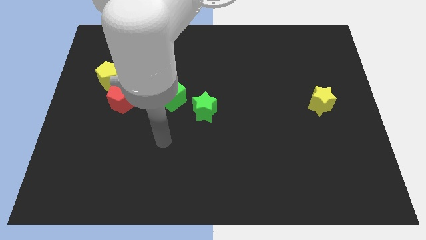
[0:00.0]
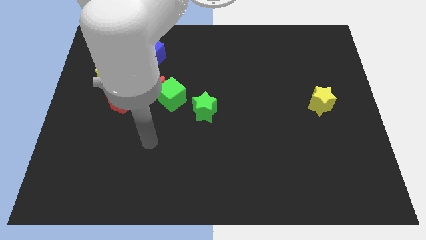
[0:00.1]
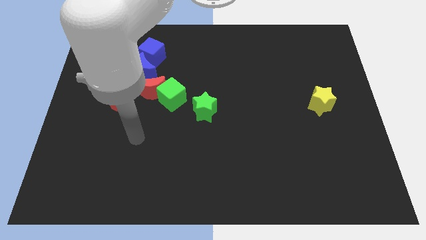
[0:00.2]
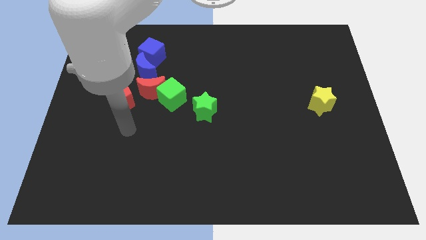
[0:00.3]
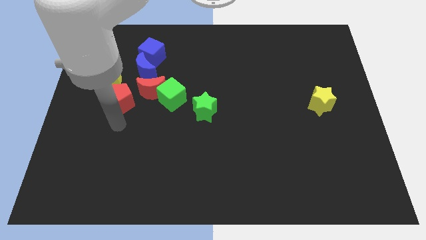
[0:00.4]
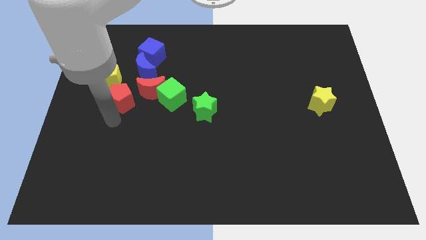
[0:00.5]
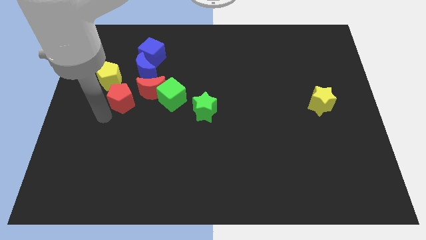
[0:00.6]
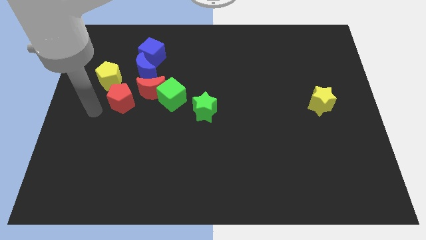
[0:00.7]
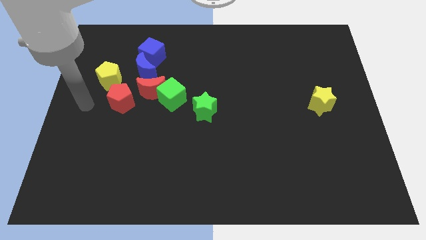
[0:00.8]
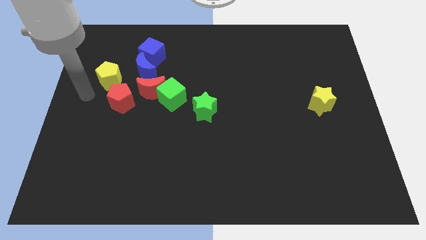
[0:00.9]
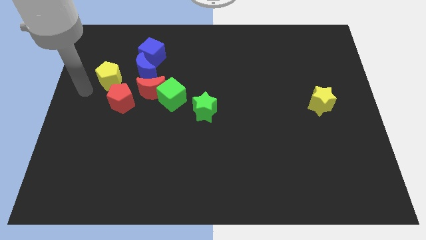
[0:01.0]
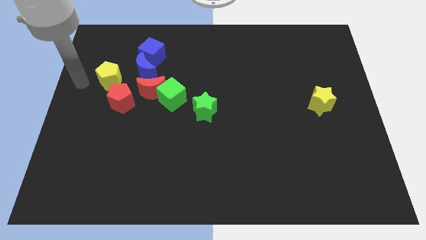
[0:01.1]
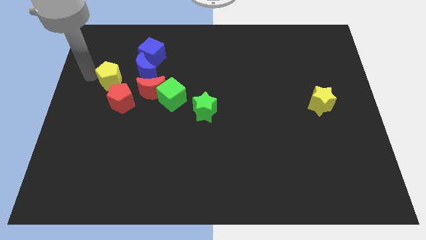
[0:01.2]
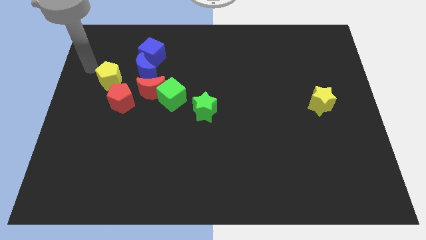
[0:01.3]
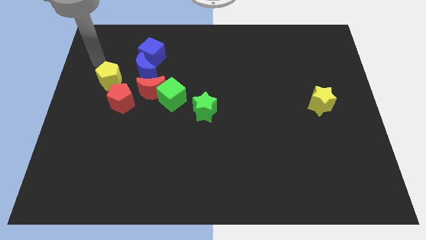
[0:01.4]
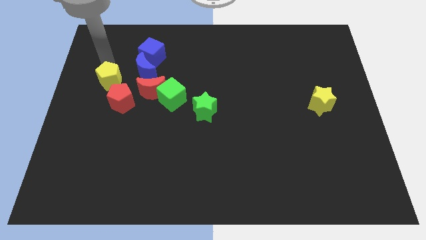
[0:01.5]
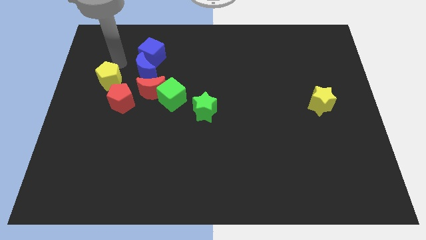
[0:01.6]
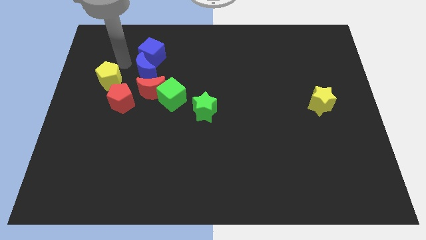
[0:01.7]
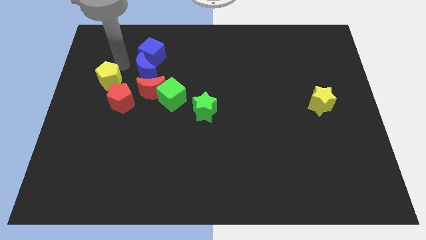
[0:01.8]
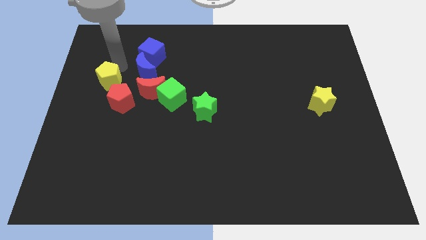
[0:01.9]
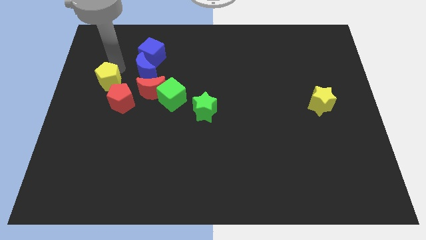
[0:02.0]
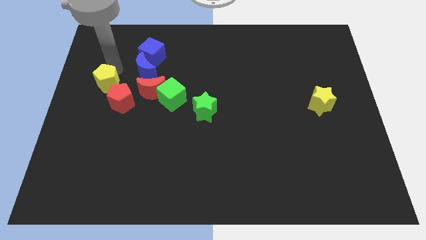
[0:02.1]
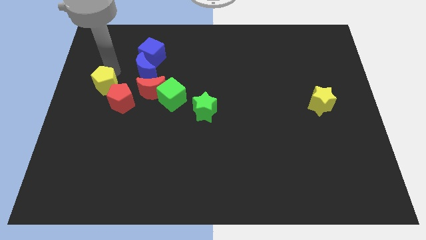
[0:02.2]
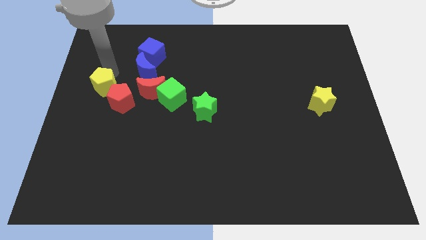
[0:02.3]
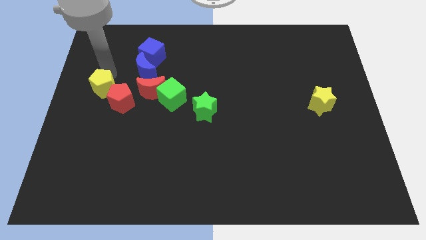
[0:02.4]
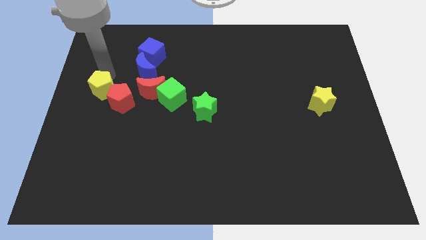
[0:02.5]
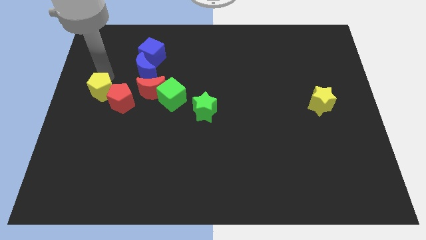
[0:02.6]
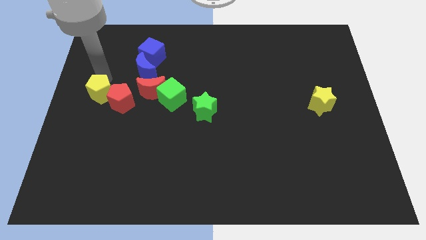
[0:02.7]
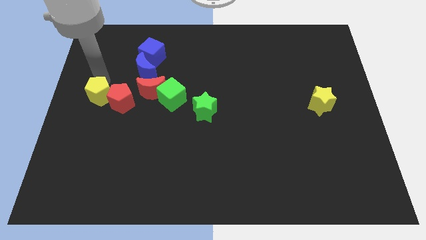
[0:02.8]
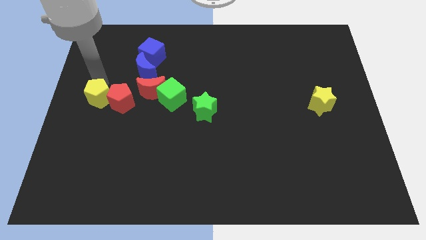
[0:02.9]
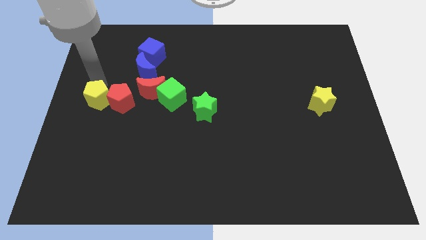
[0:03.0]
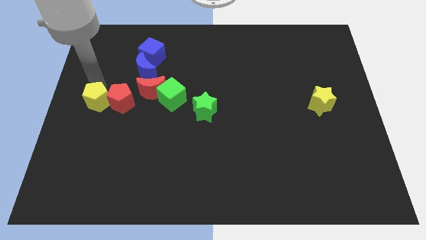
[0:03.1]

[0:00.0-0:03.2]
slide the yellow pentagon downwards somewhat

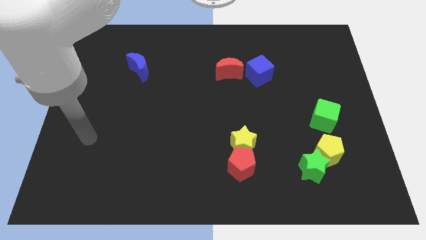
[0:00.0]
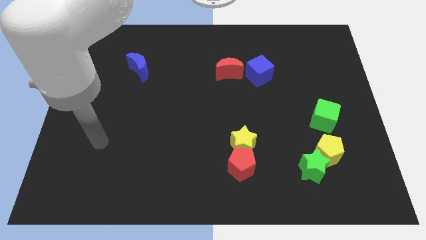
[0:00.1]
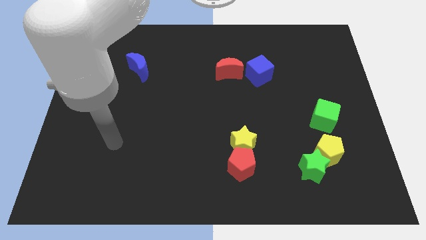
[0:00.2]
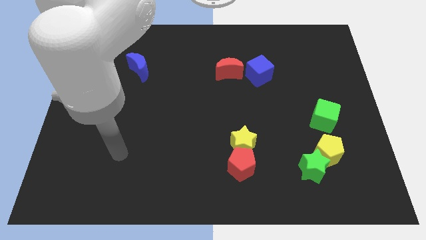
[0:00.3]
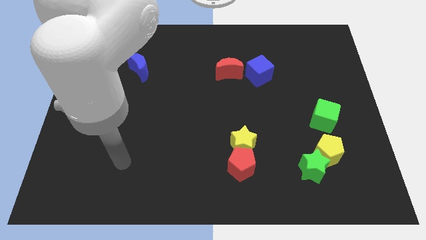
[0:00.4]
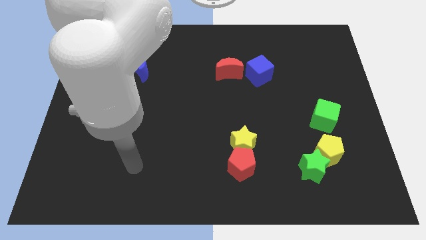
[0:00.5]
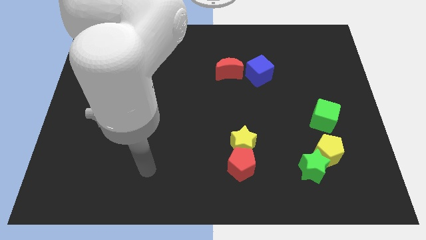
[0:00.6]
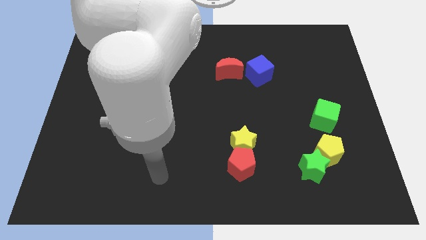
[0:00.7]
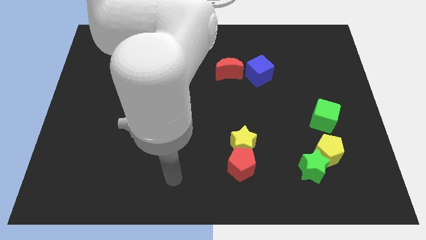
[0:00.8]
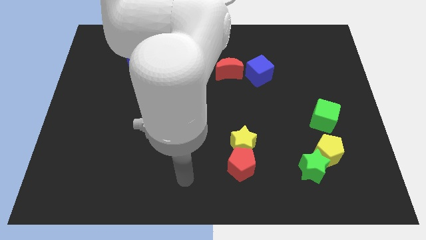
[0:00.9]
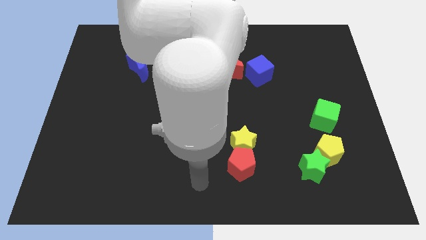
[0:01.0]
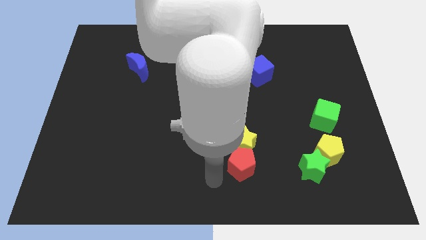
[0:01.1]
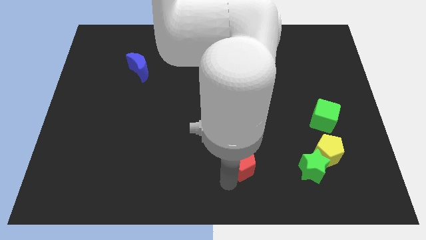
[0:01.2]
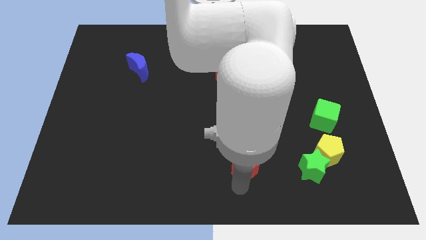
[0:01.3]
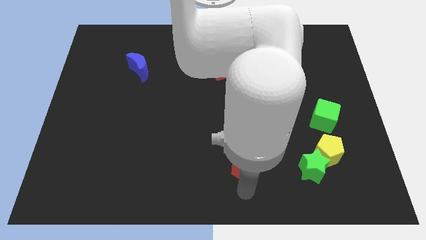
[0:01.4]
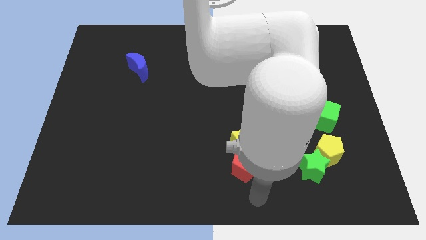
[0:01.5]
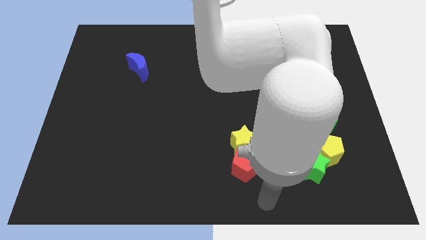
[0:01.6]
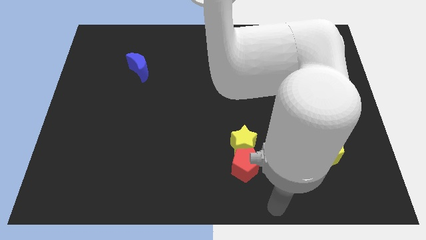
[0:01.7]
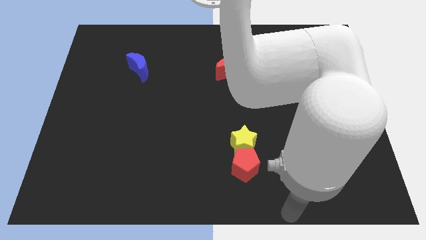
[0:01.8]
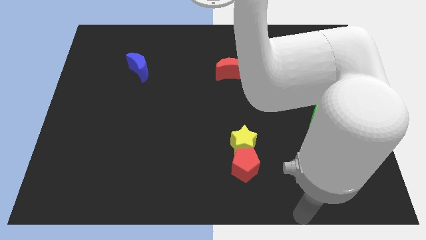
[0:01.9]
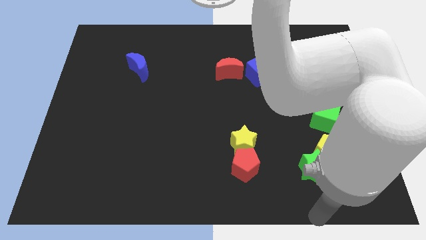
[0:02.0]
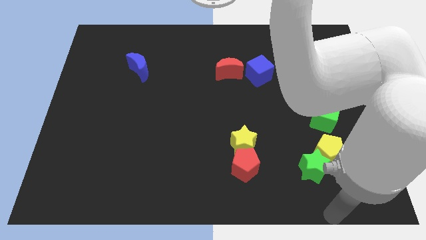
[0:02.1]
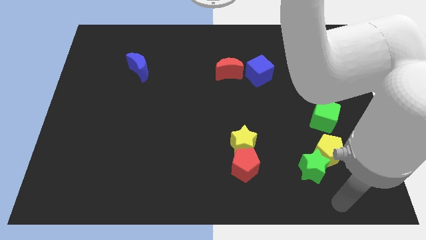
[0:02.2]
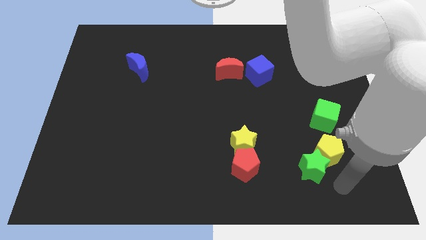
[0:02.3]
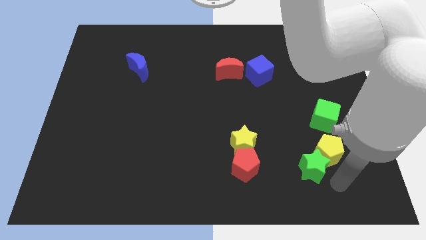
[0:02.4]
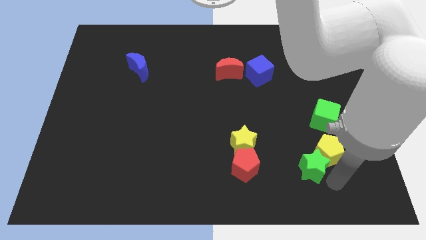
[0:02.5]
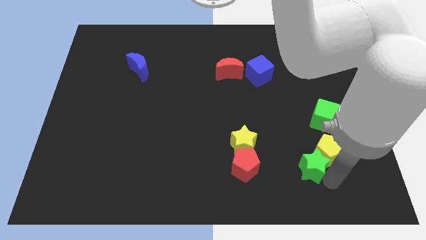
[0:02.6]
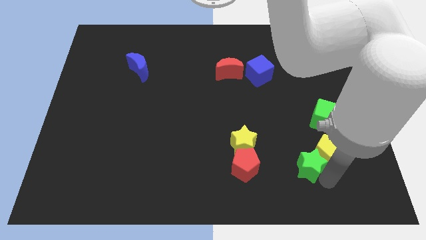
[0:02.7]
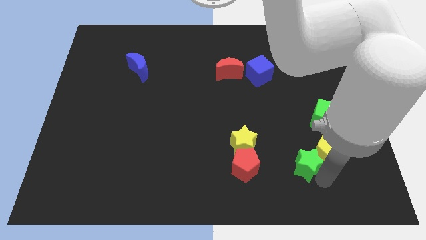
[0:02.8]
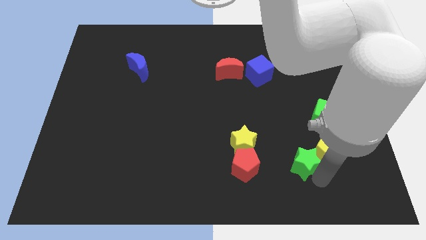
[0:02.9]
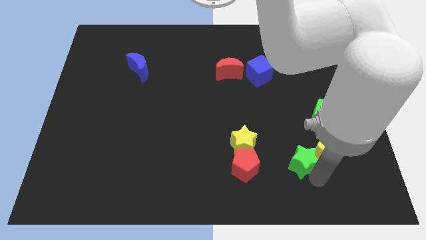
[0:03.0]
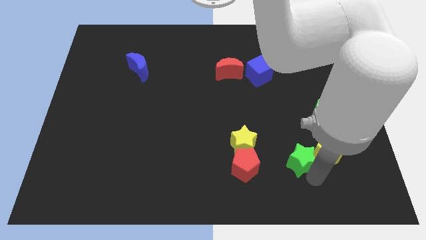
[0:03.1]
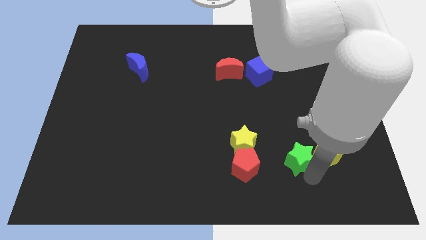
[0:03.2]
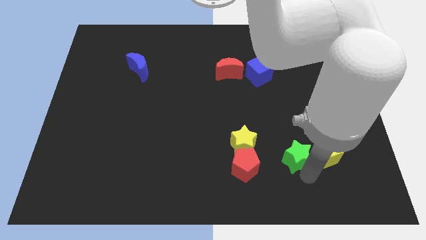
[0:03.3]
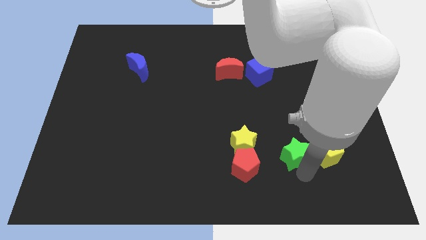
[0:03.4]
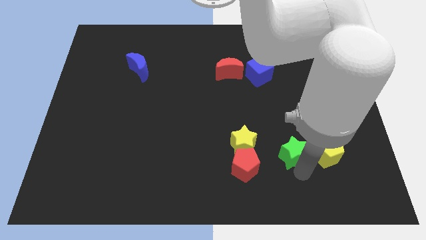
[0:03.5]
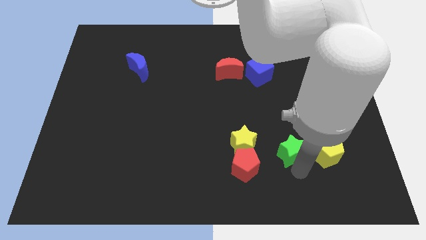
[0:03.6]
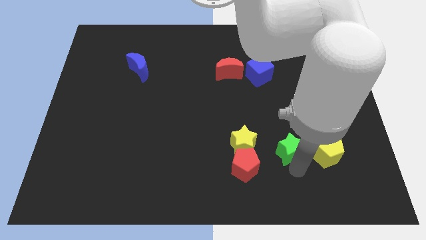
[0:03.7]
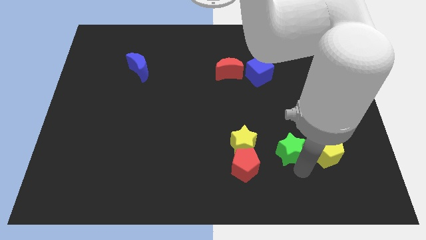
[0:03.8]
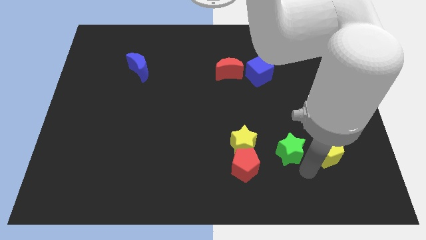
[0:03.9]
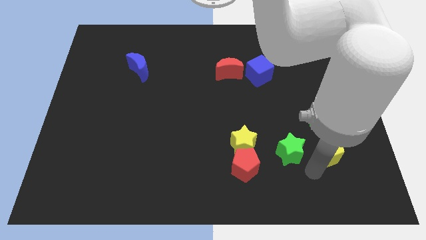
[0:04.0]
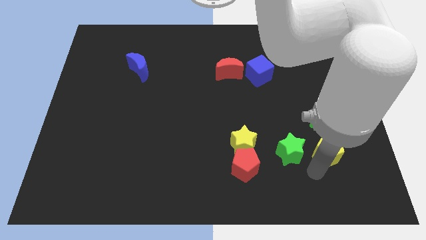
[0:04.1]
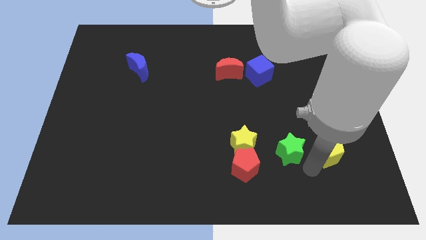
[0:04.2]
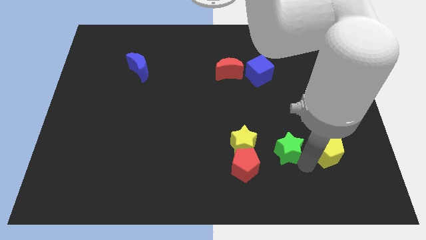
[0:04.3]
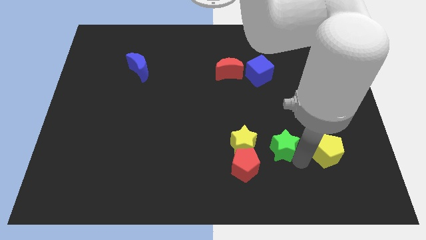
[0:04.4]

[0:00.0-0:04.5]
slightly move the green star diagonally up and to the left

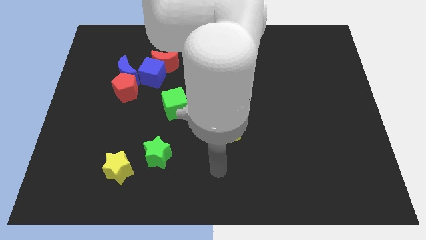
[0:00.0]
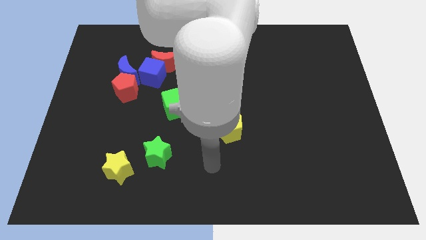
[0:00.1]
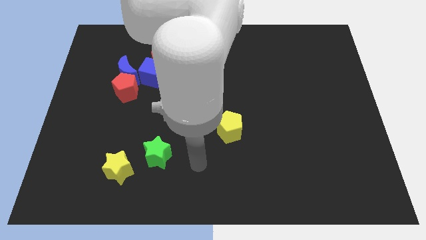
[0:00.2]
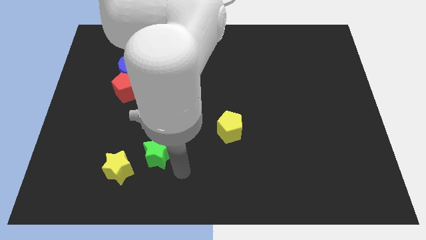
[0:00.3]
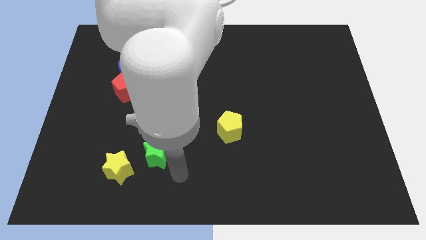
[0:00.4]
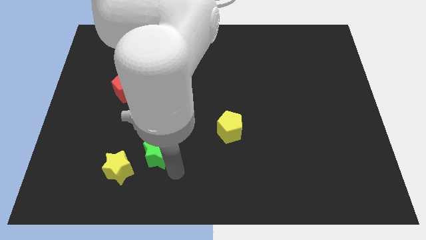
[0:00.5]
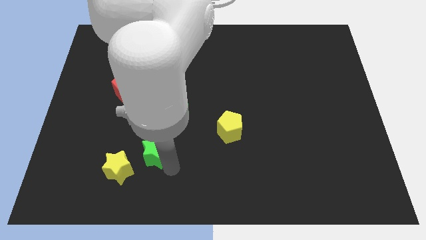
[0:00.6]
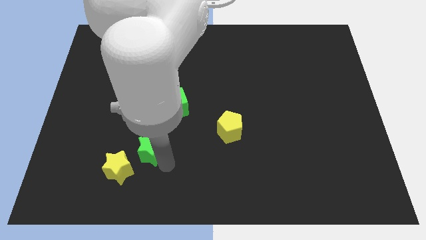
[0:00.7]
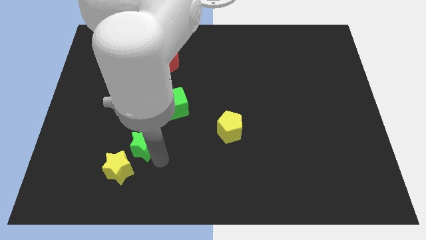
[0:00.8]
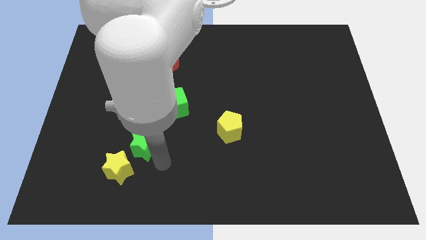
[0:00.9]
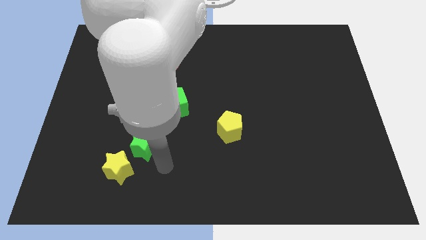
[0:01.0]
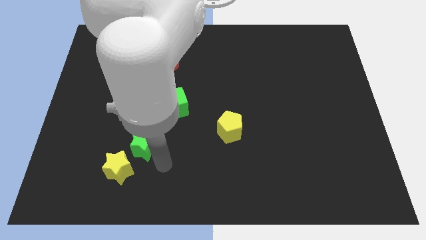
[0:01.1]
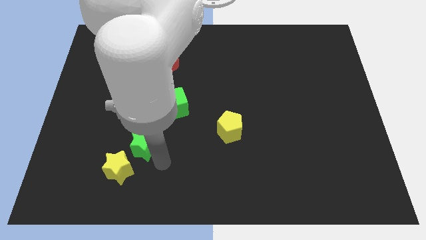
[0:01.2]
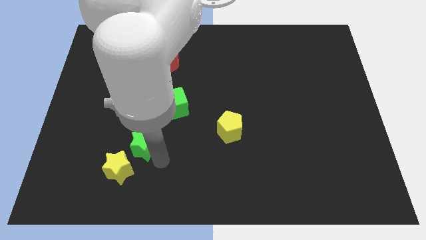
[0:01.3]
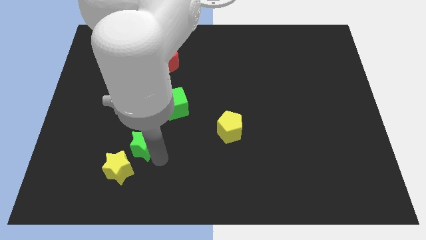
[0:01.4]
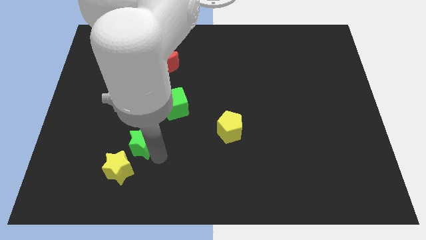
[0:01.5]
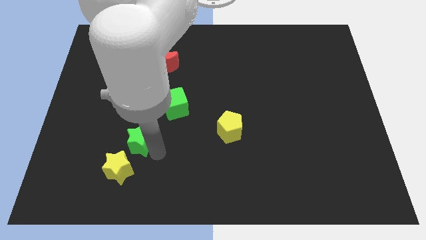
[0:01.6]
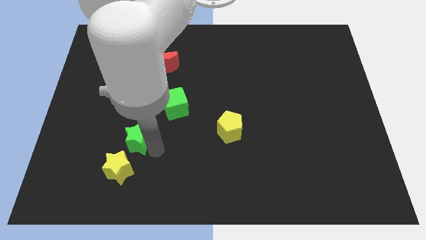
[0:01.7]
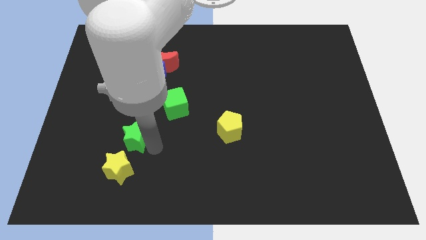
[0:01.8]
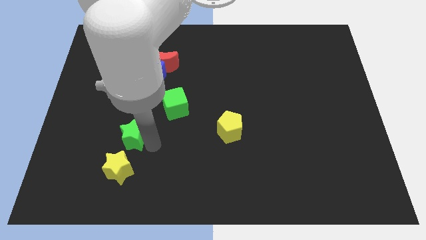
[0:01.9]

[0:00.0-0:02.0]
slightly move the green star upwards and to the left diagonally
